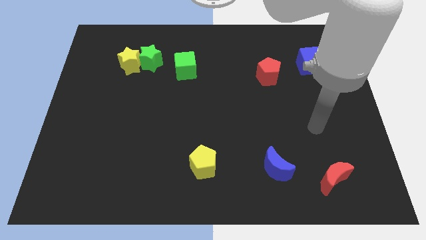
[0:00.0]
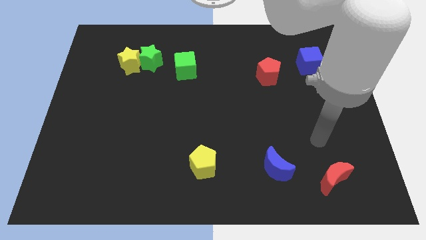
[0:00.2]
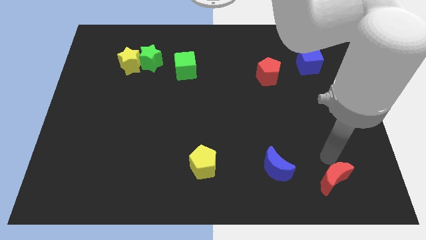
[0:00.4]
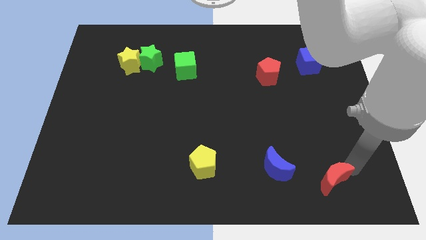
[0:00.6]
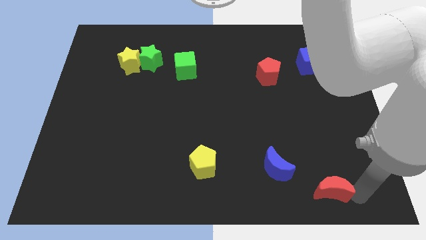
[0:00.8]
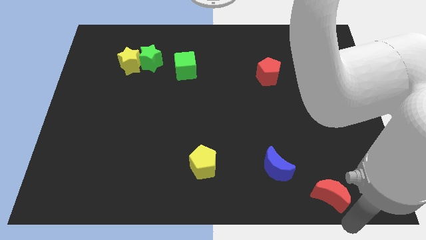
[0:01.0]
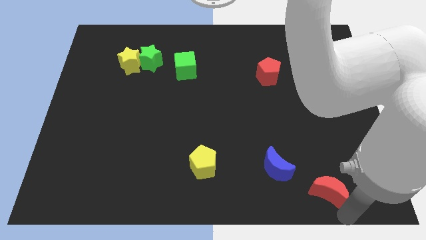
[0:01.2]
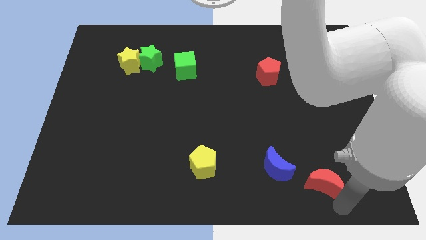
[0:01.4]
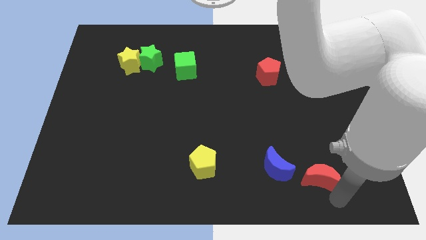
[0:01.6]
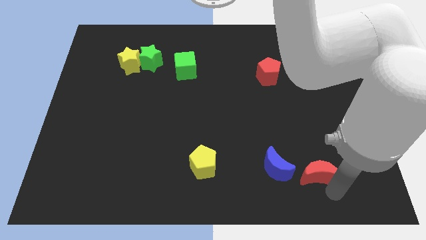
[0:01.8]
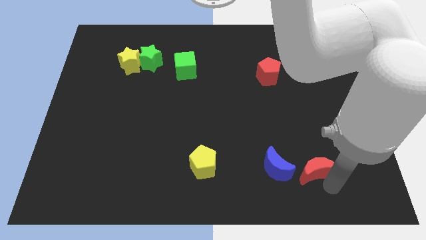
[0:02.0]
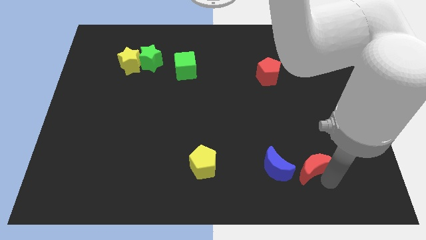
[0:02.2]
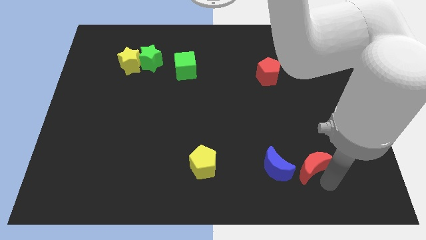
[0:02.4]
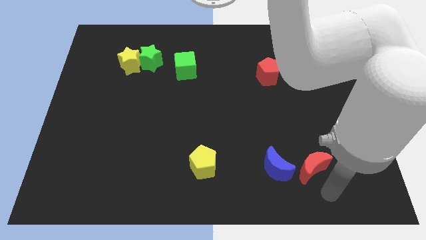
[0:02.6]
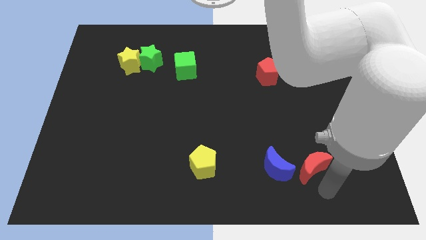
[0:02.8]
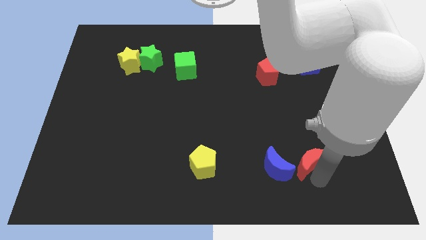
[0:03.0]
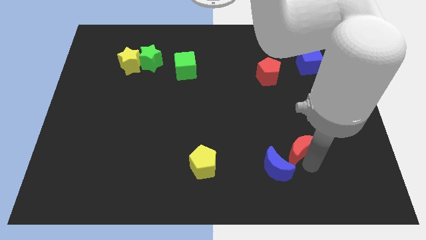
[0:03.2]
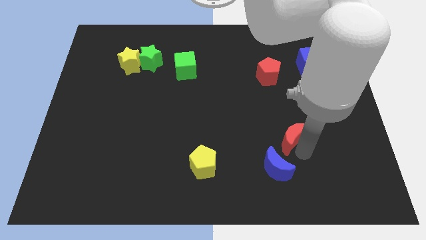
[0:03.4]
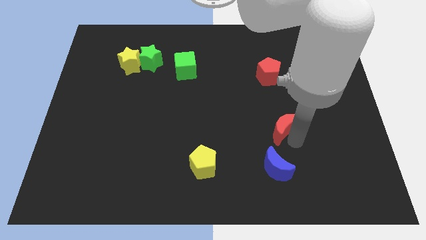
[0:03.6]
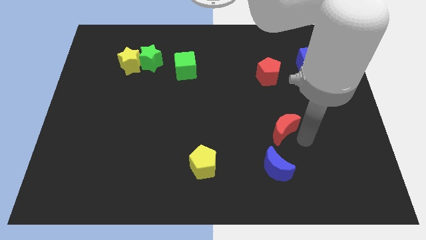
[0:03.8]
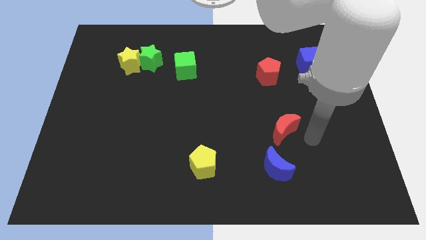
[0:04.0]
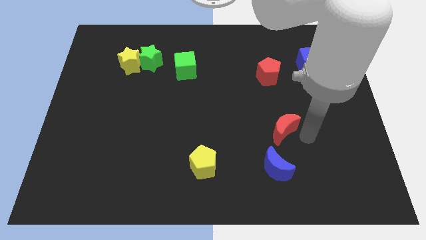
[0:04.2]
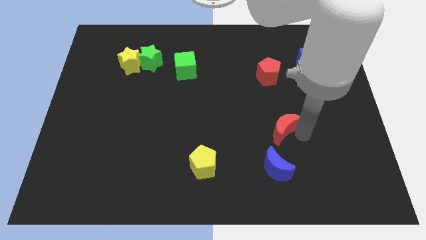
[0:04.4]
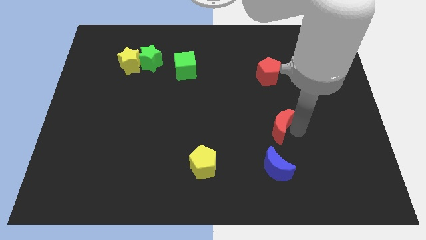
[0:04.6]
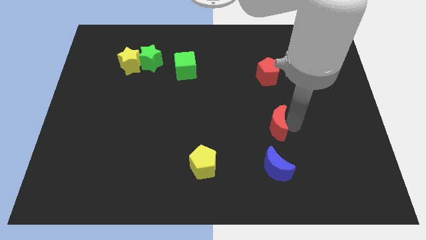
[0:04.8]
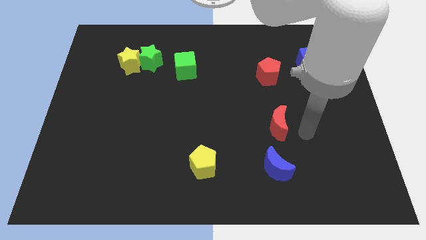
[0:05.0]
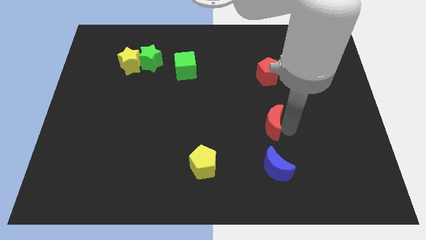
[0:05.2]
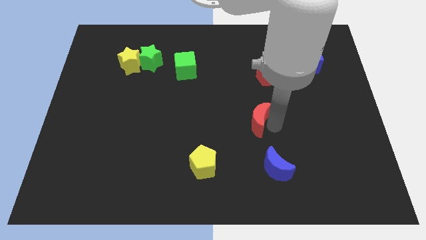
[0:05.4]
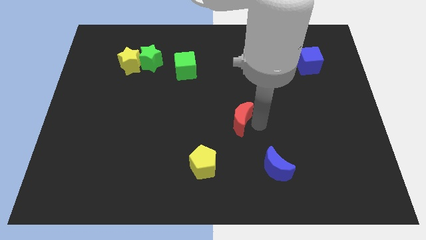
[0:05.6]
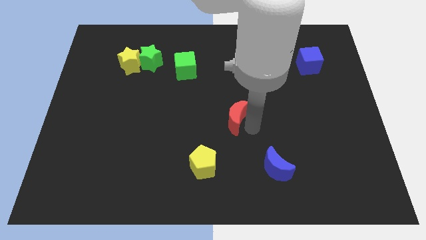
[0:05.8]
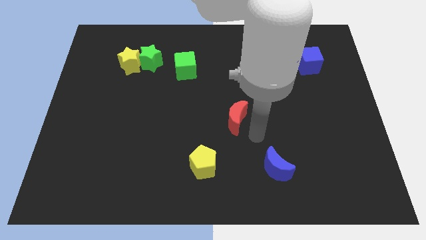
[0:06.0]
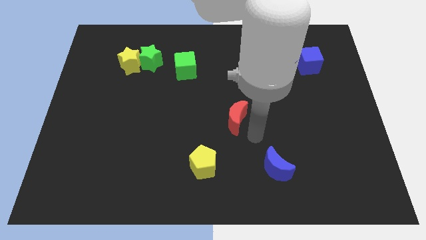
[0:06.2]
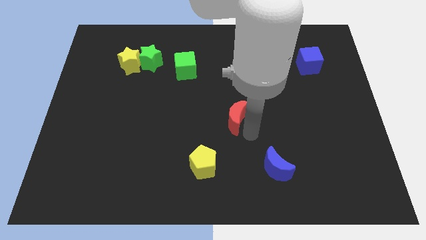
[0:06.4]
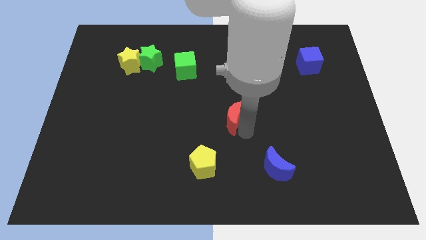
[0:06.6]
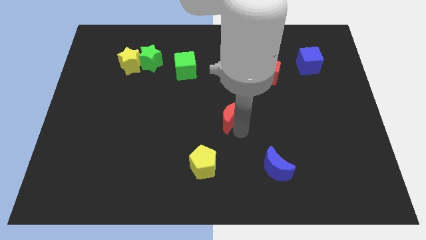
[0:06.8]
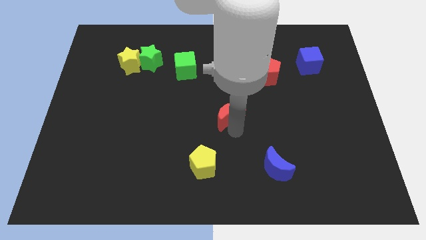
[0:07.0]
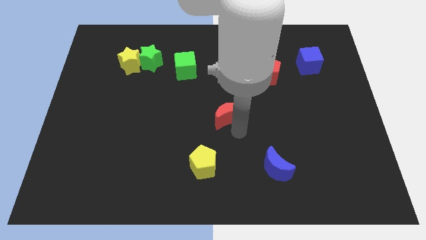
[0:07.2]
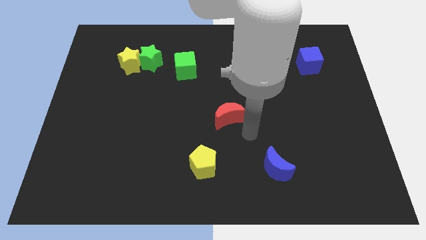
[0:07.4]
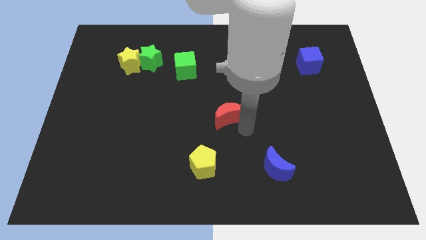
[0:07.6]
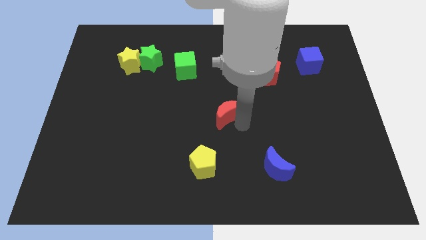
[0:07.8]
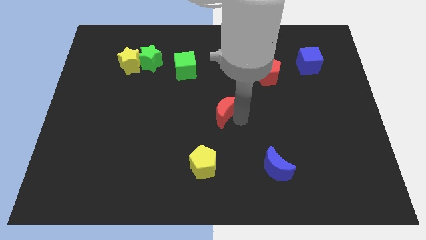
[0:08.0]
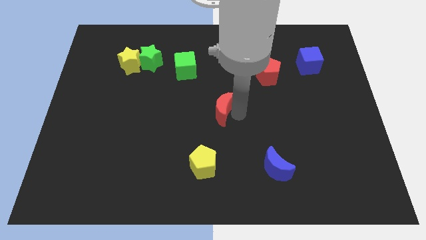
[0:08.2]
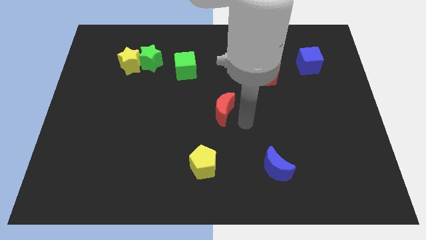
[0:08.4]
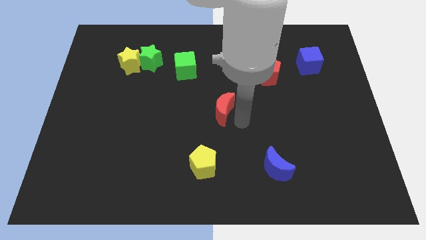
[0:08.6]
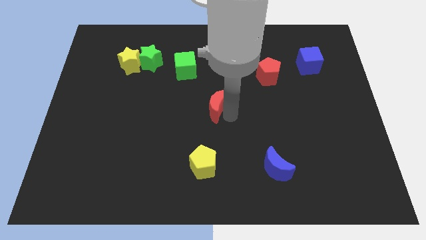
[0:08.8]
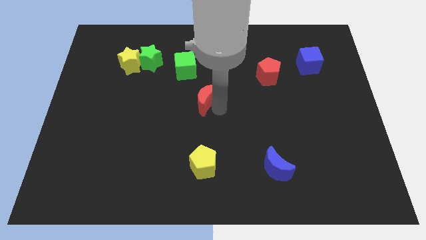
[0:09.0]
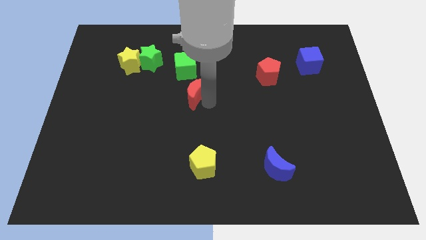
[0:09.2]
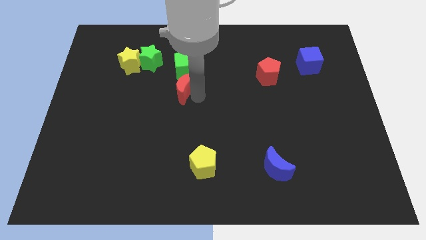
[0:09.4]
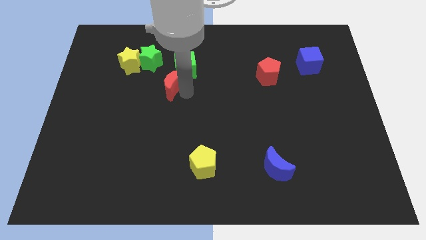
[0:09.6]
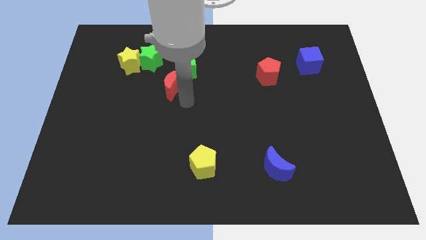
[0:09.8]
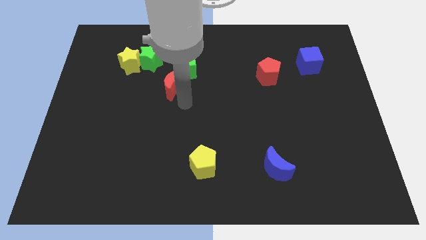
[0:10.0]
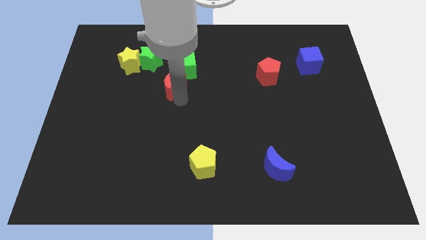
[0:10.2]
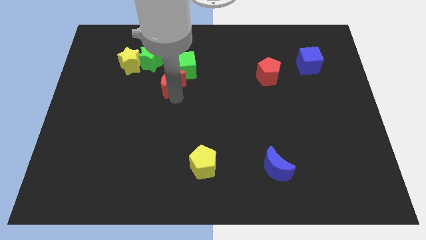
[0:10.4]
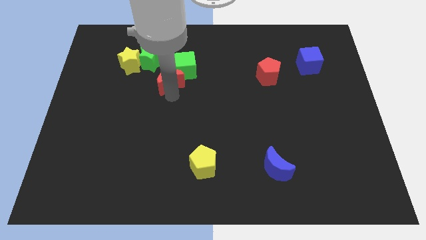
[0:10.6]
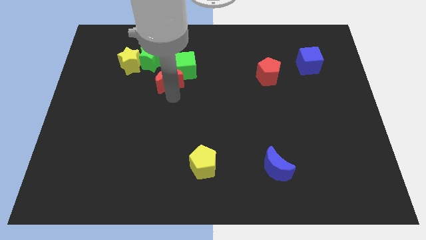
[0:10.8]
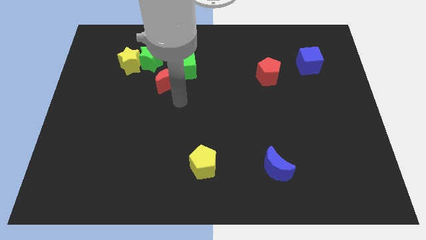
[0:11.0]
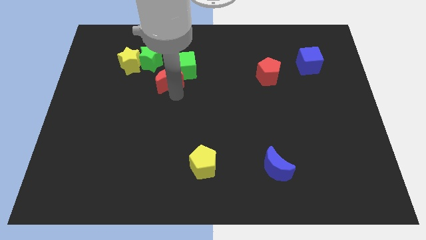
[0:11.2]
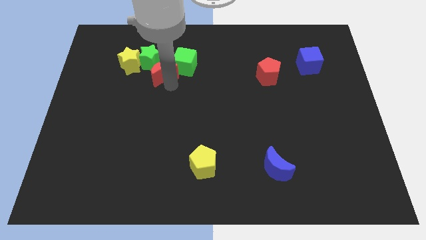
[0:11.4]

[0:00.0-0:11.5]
slide the red moon towards the green star

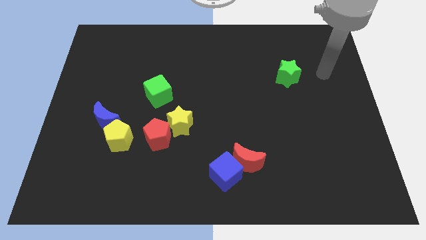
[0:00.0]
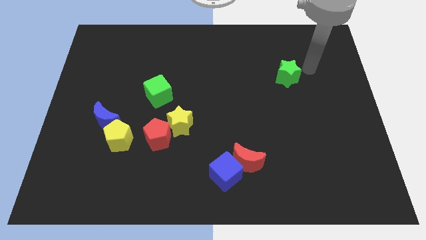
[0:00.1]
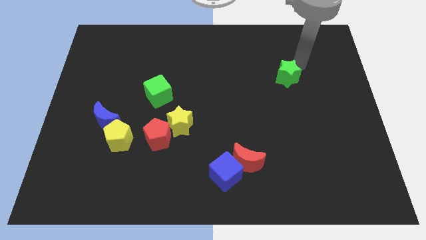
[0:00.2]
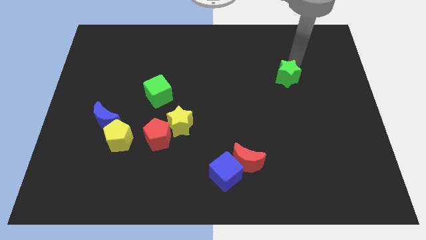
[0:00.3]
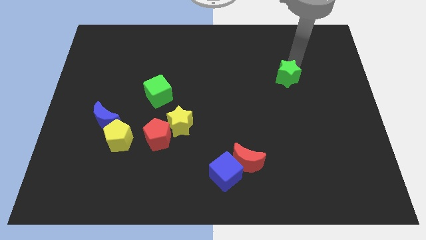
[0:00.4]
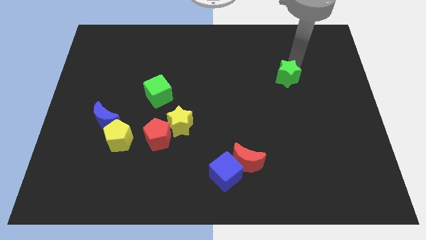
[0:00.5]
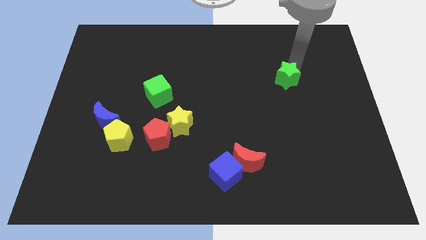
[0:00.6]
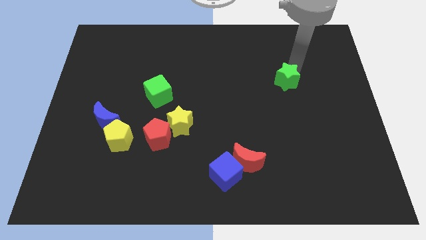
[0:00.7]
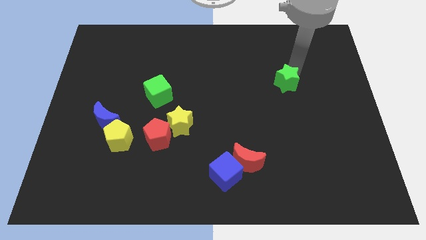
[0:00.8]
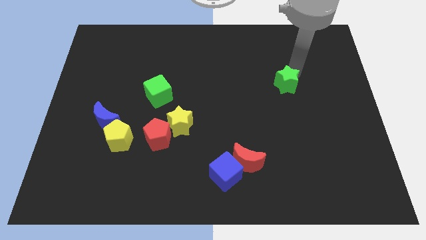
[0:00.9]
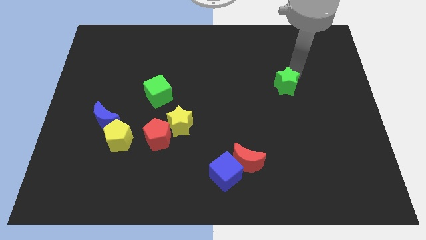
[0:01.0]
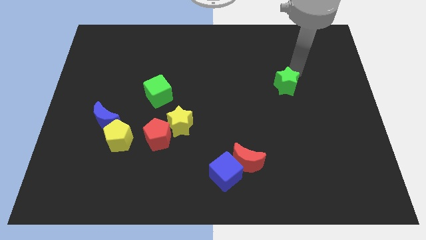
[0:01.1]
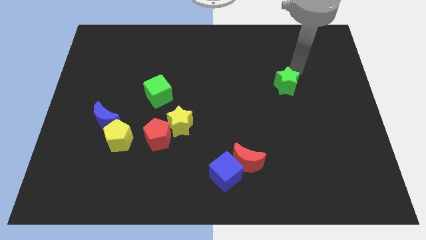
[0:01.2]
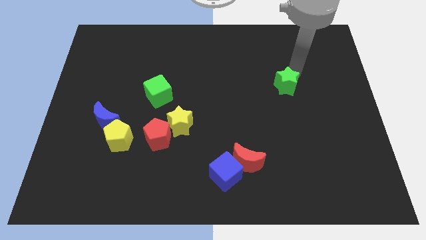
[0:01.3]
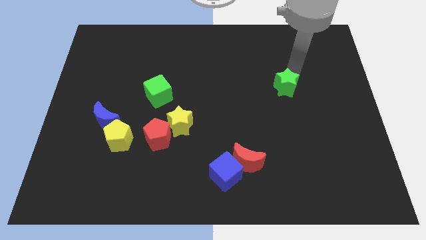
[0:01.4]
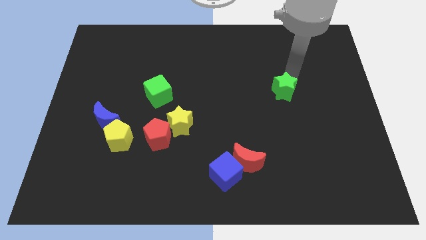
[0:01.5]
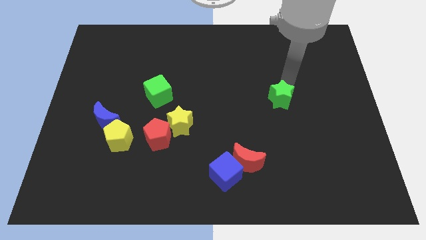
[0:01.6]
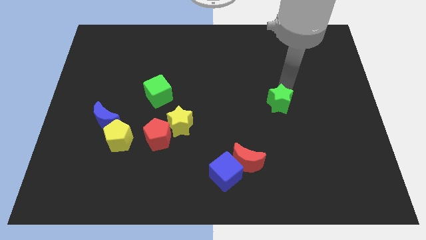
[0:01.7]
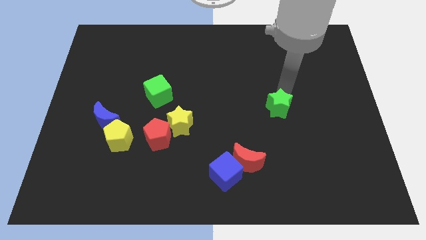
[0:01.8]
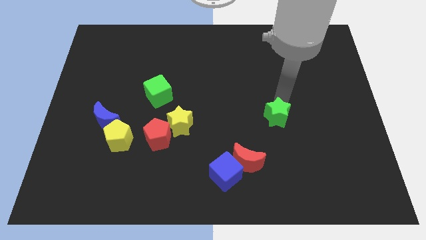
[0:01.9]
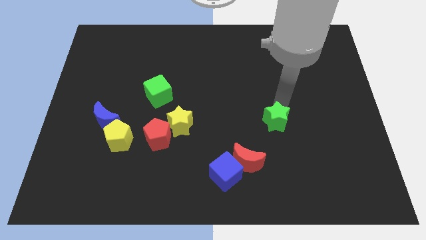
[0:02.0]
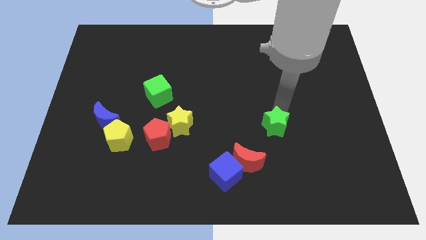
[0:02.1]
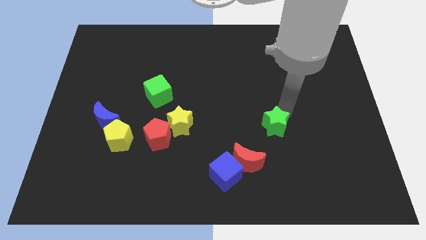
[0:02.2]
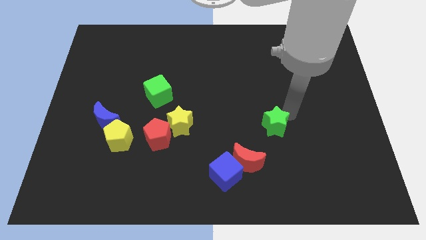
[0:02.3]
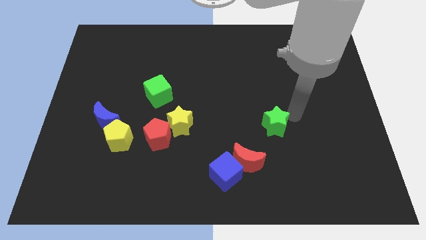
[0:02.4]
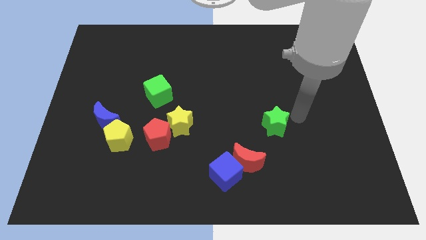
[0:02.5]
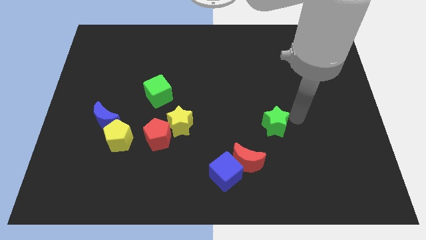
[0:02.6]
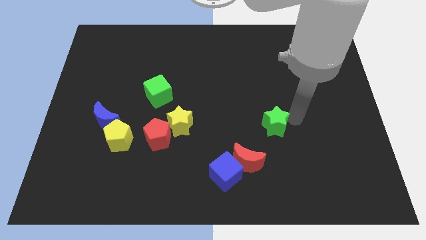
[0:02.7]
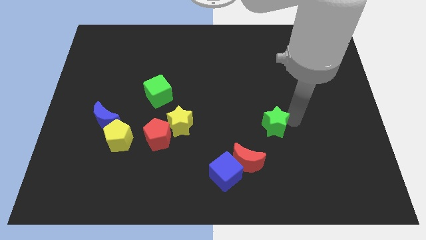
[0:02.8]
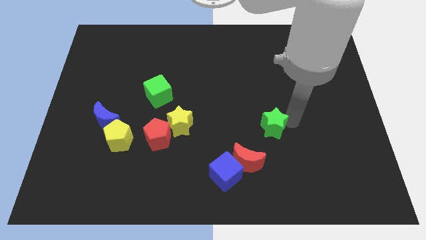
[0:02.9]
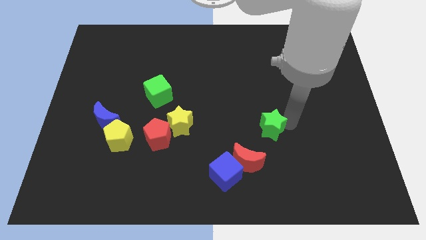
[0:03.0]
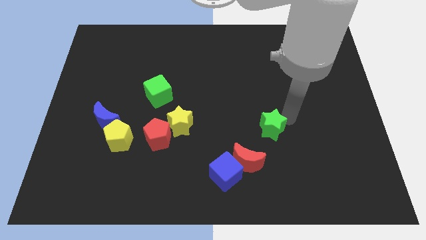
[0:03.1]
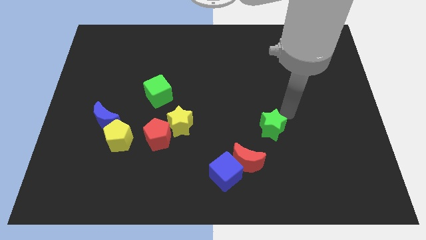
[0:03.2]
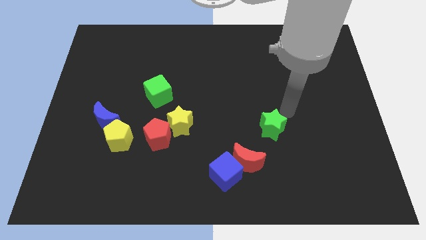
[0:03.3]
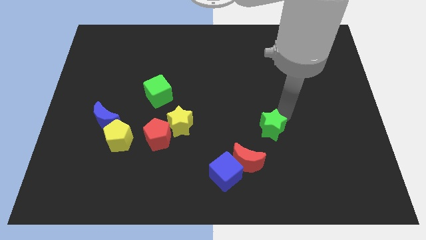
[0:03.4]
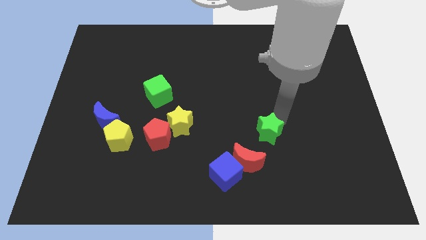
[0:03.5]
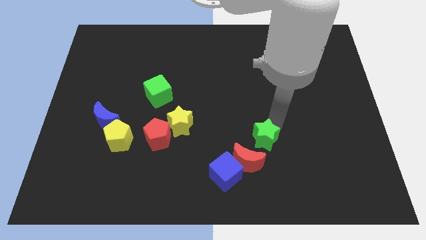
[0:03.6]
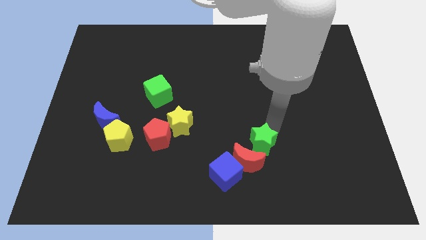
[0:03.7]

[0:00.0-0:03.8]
slide the green star close to the red moon
